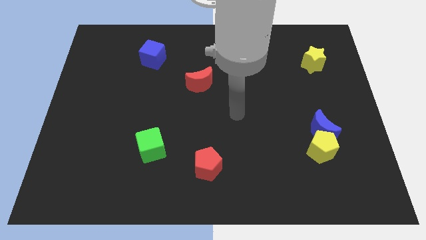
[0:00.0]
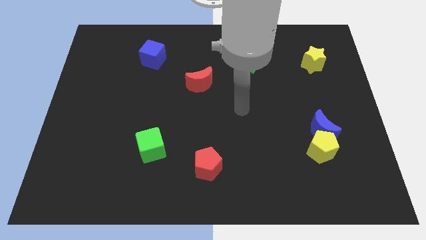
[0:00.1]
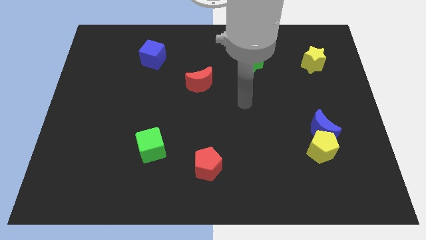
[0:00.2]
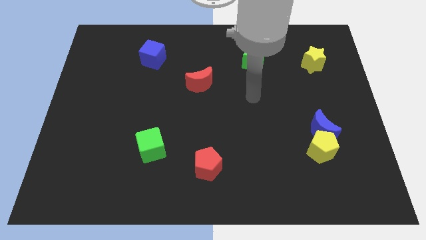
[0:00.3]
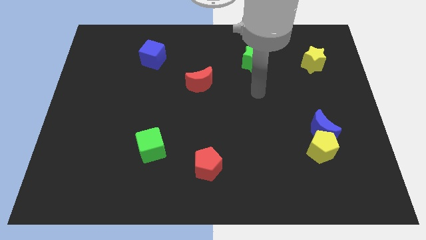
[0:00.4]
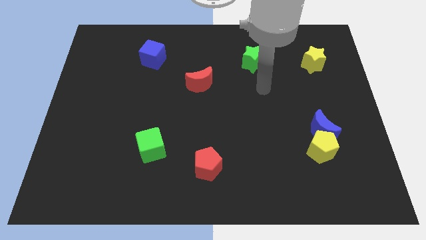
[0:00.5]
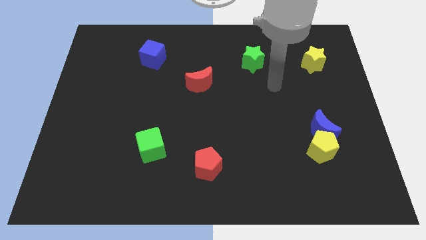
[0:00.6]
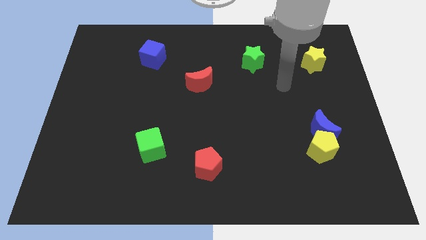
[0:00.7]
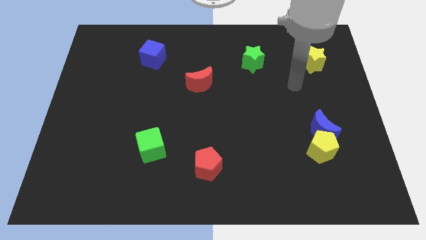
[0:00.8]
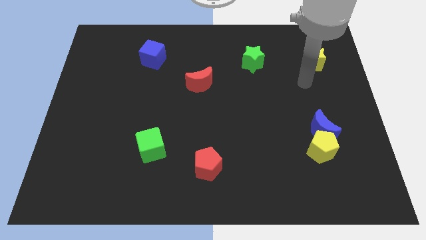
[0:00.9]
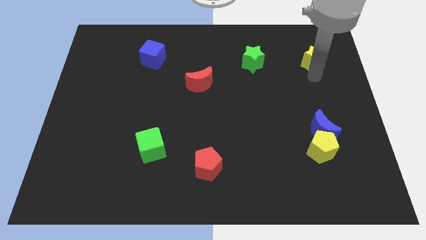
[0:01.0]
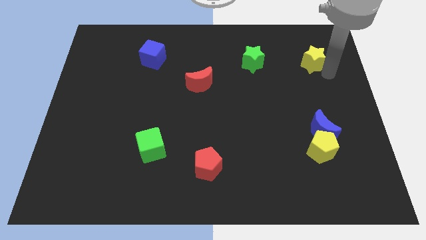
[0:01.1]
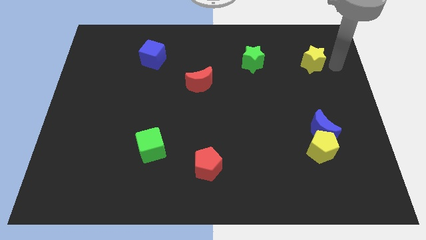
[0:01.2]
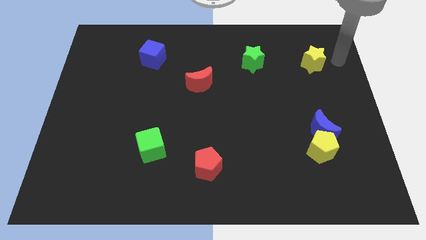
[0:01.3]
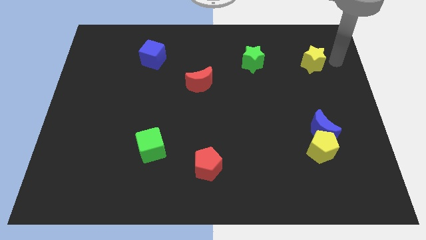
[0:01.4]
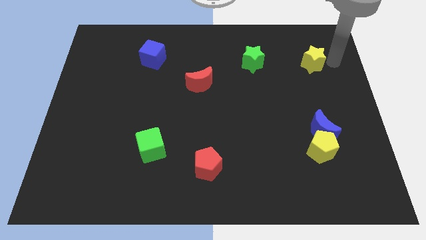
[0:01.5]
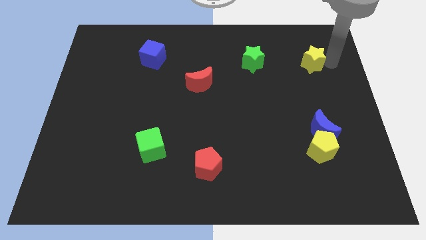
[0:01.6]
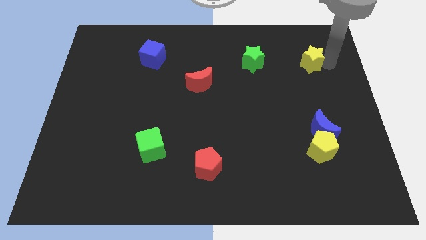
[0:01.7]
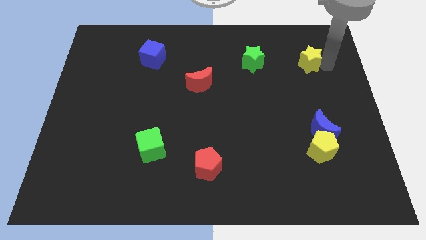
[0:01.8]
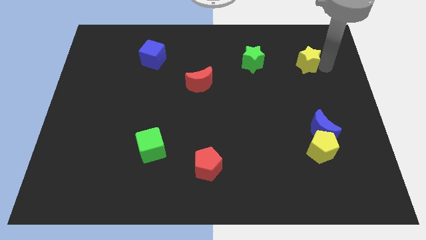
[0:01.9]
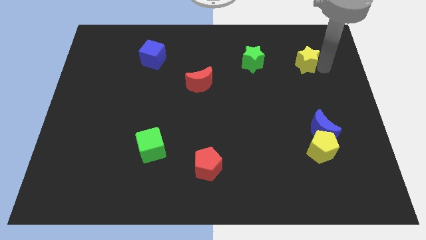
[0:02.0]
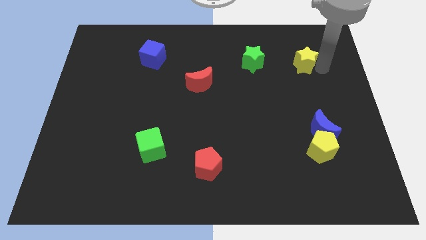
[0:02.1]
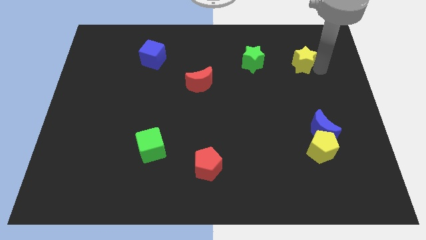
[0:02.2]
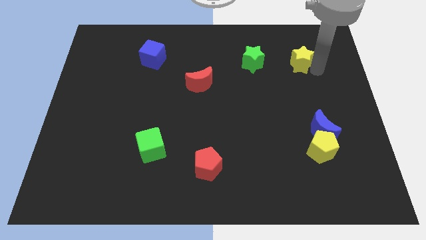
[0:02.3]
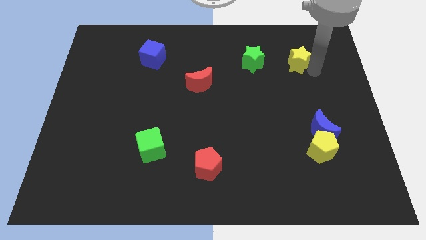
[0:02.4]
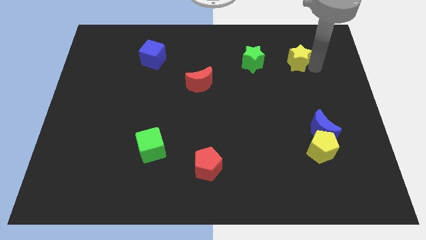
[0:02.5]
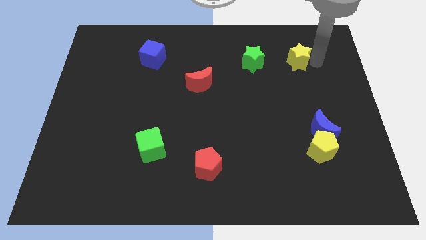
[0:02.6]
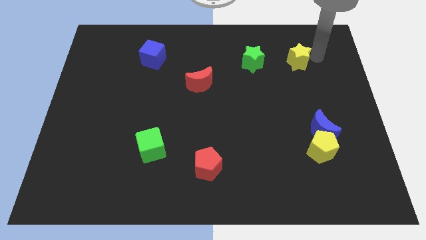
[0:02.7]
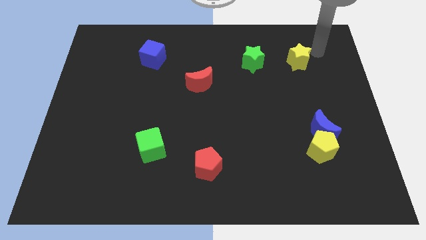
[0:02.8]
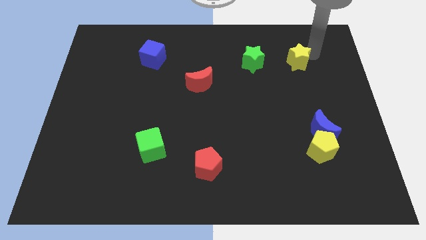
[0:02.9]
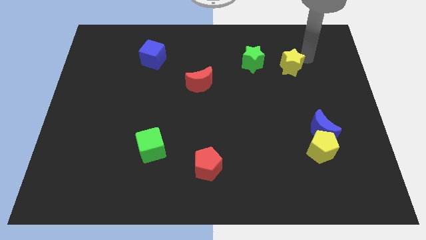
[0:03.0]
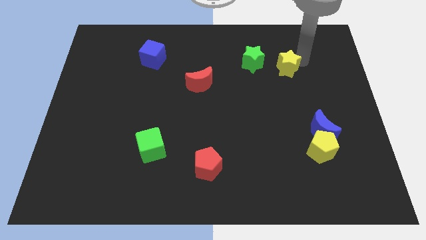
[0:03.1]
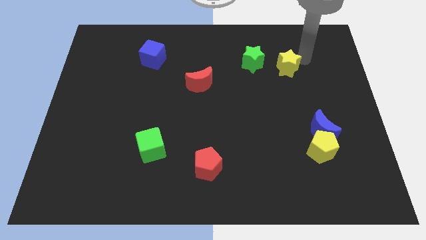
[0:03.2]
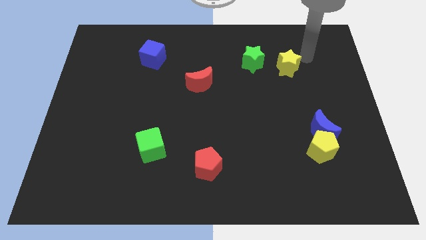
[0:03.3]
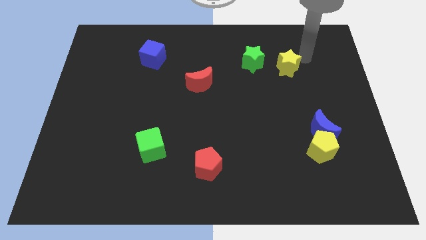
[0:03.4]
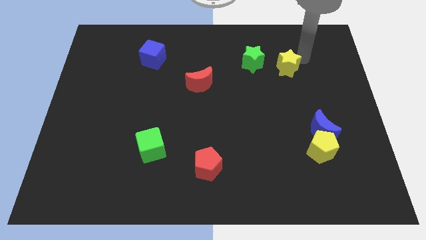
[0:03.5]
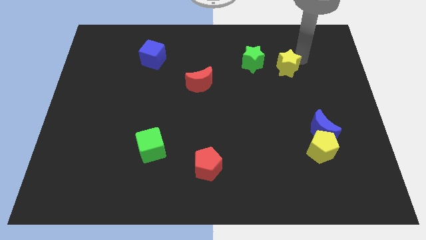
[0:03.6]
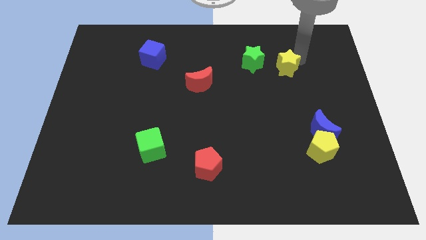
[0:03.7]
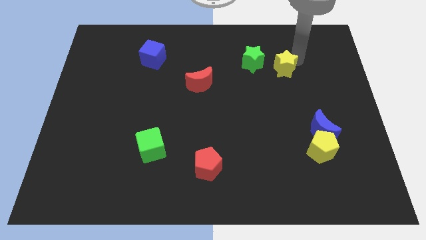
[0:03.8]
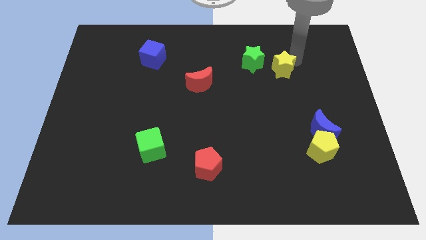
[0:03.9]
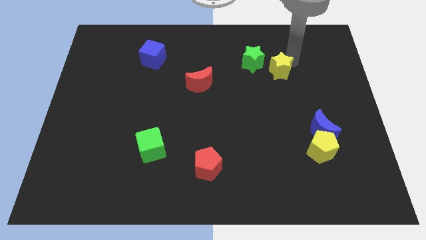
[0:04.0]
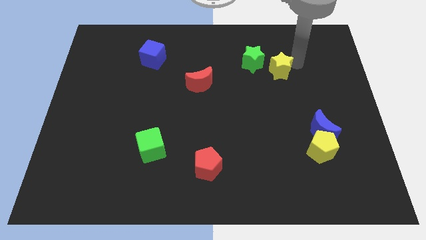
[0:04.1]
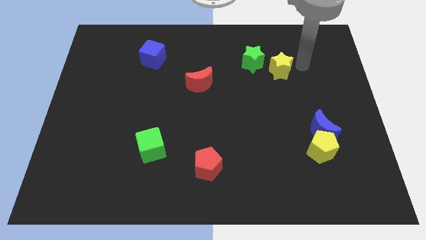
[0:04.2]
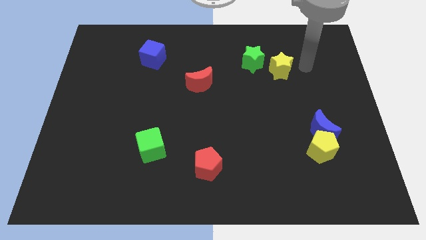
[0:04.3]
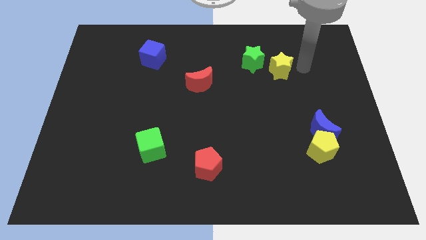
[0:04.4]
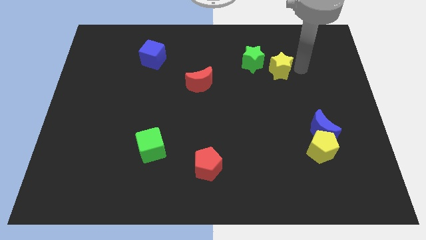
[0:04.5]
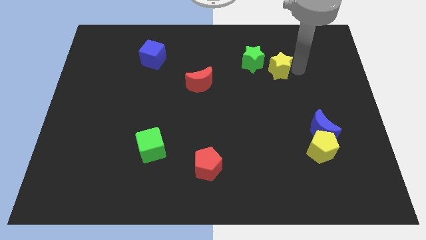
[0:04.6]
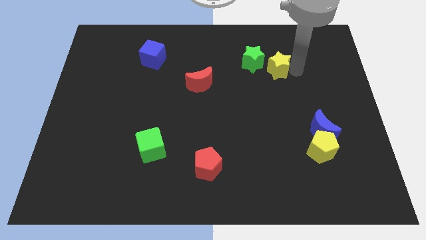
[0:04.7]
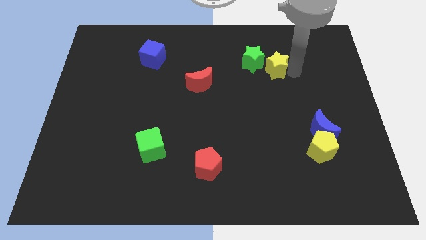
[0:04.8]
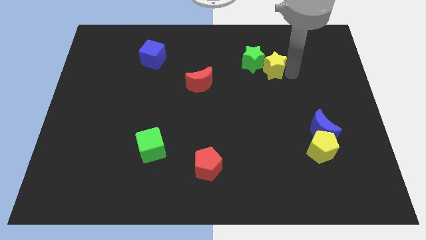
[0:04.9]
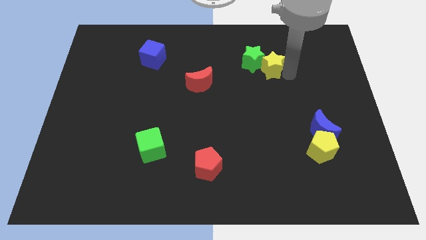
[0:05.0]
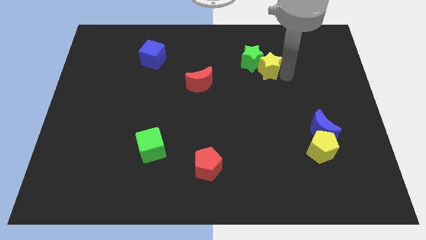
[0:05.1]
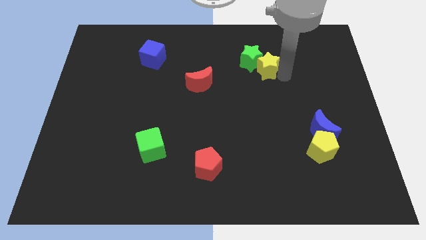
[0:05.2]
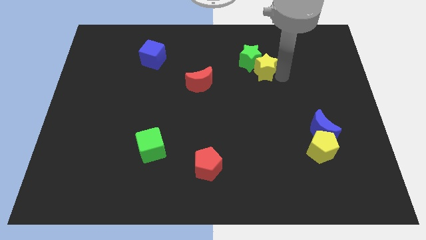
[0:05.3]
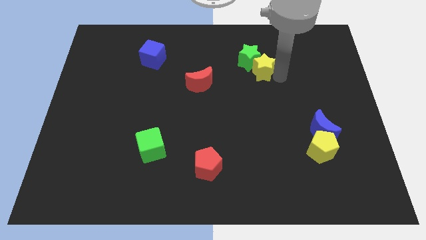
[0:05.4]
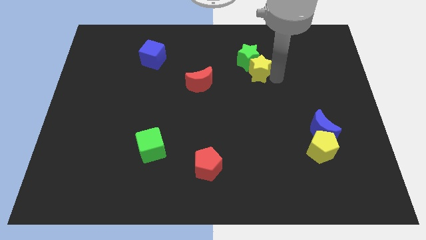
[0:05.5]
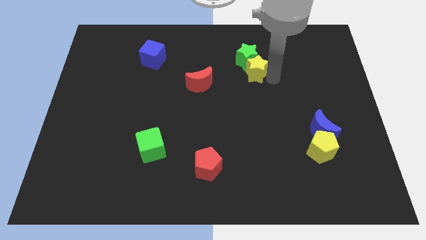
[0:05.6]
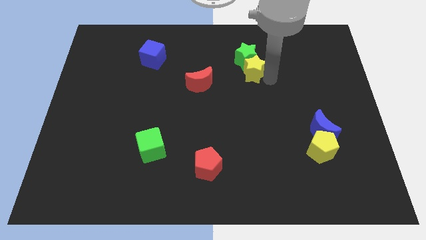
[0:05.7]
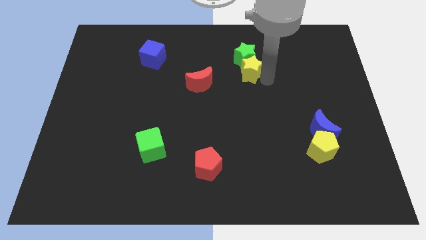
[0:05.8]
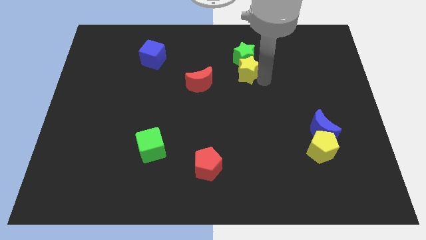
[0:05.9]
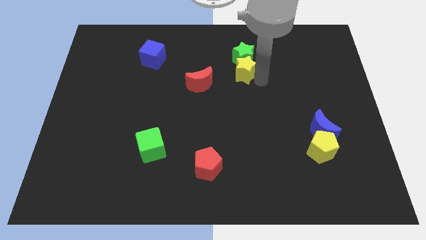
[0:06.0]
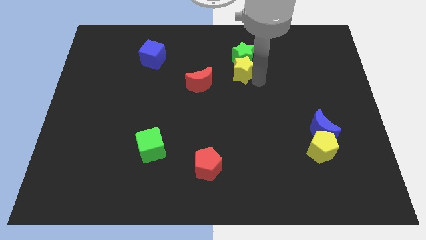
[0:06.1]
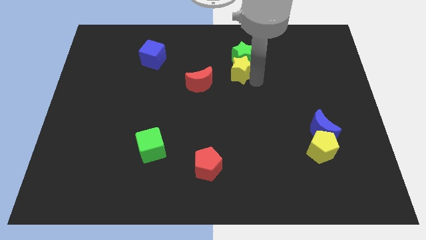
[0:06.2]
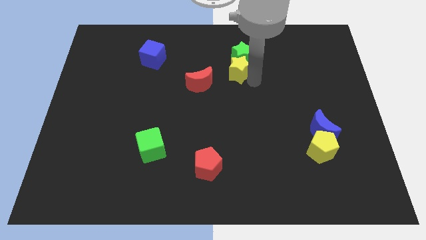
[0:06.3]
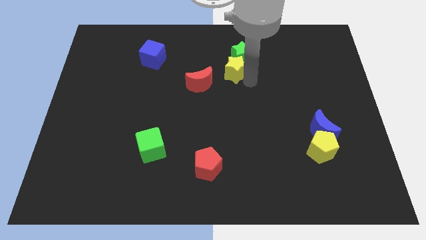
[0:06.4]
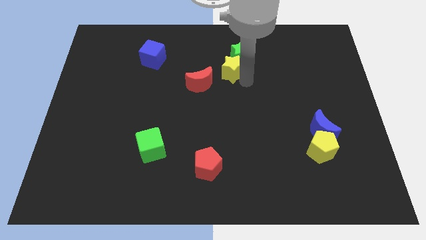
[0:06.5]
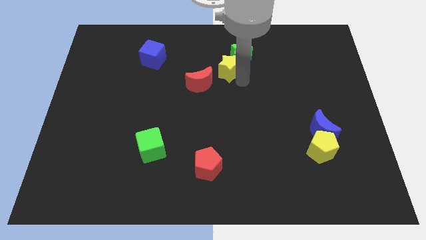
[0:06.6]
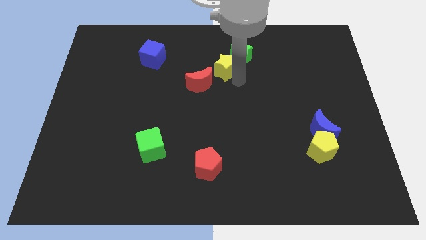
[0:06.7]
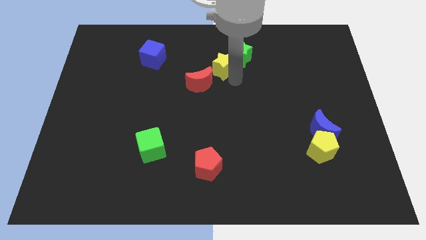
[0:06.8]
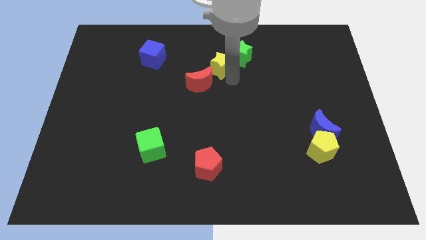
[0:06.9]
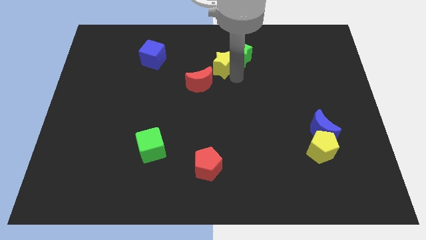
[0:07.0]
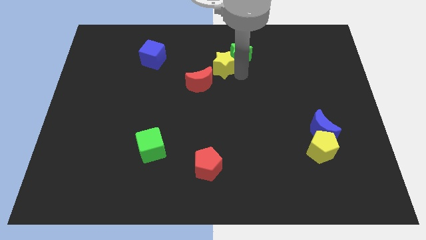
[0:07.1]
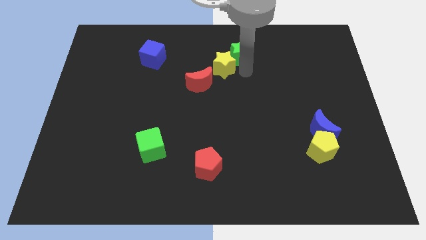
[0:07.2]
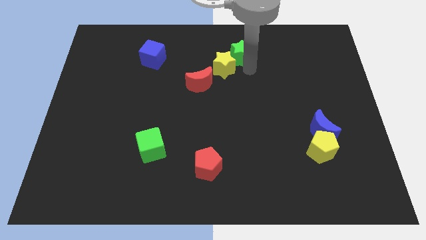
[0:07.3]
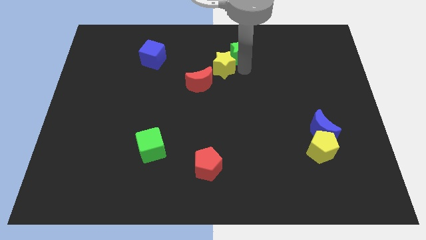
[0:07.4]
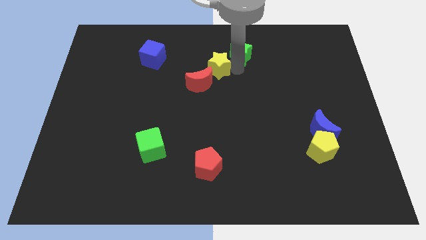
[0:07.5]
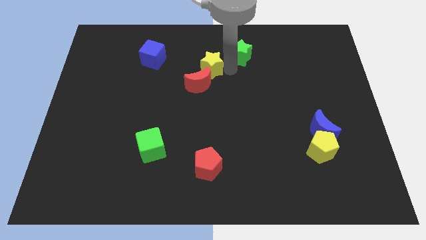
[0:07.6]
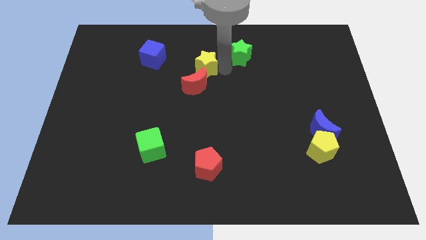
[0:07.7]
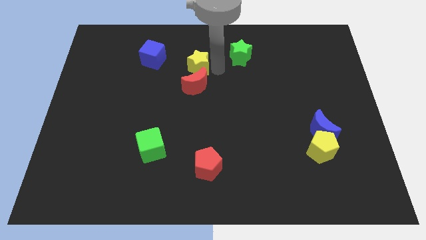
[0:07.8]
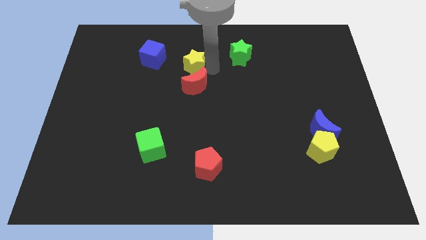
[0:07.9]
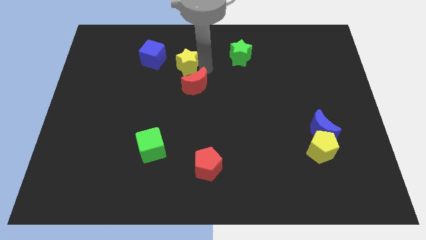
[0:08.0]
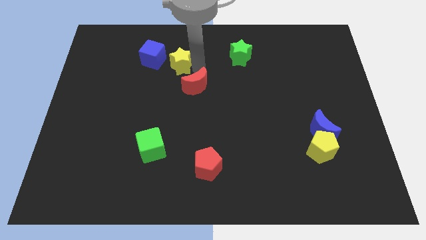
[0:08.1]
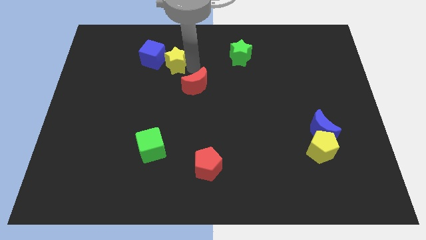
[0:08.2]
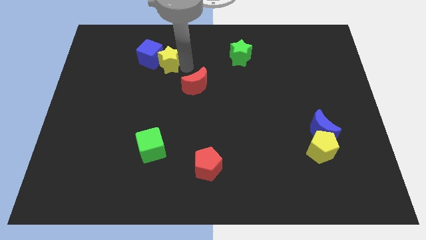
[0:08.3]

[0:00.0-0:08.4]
move the yellow star close to the blue cube
